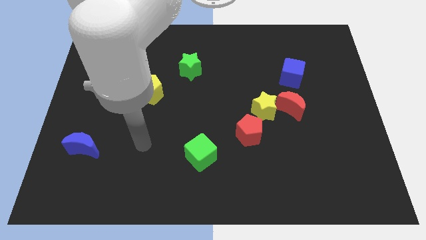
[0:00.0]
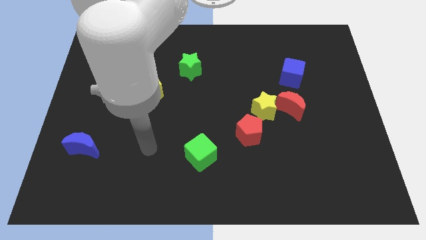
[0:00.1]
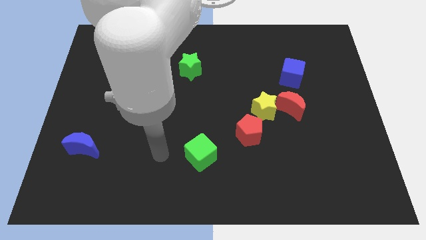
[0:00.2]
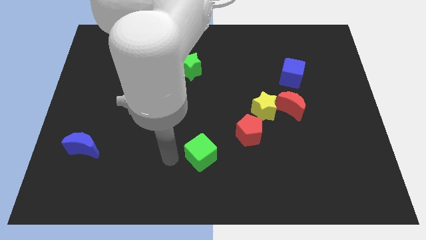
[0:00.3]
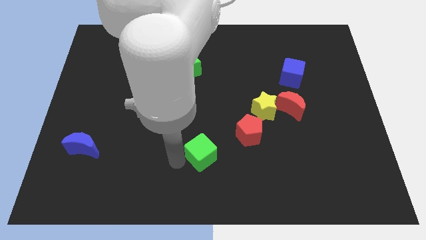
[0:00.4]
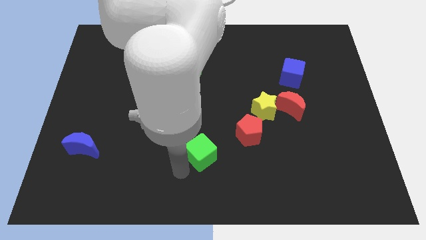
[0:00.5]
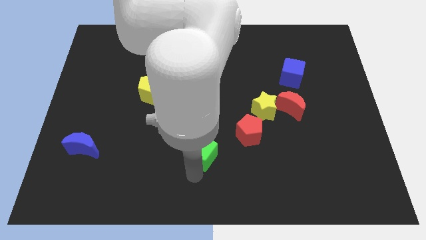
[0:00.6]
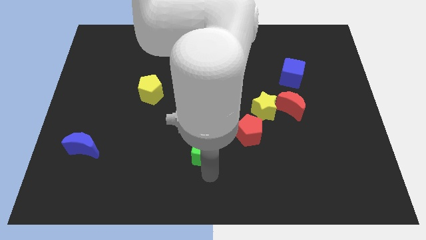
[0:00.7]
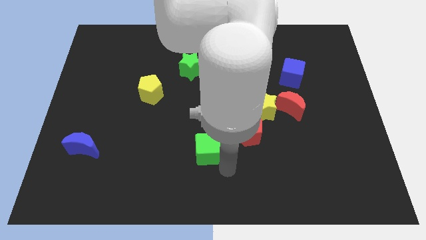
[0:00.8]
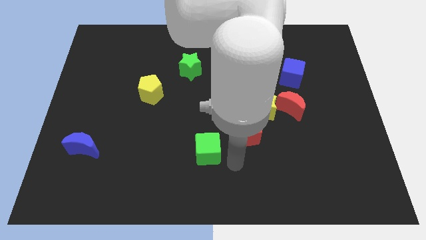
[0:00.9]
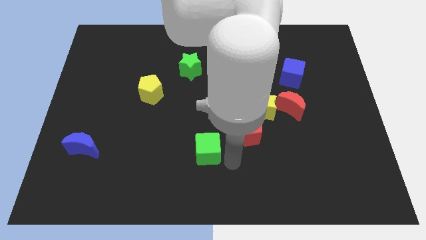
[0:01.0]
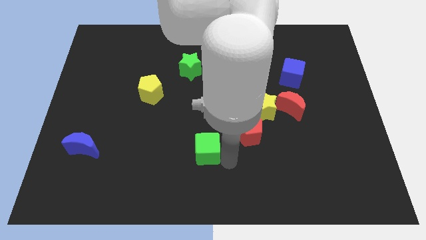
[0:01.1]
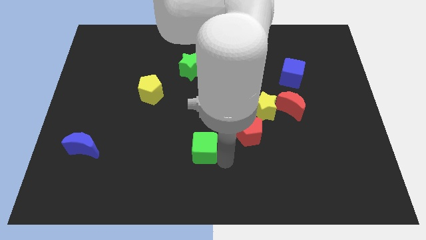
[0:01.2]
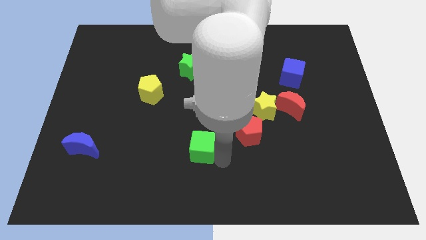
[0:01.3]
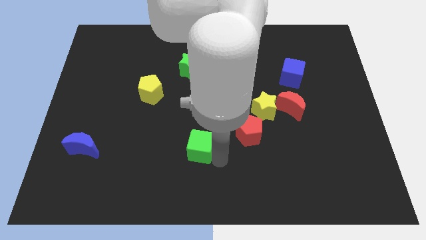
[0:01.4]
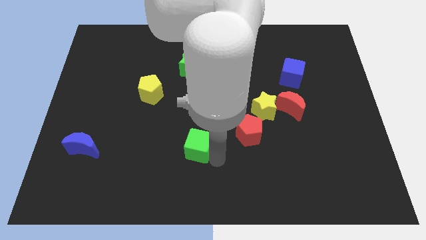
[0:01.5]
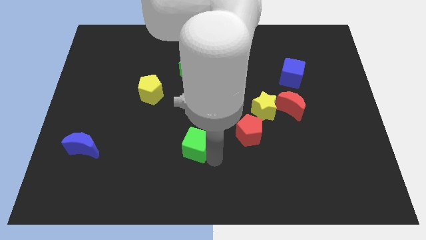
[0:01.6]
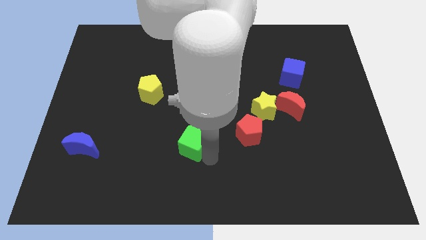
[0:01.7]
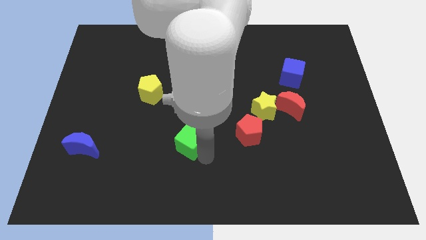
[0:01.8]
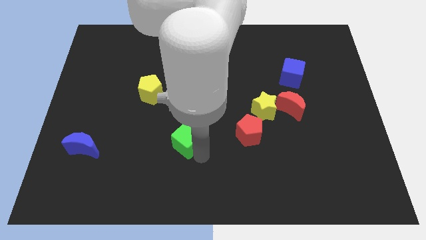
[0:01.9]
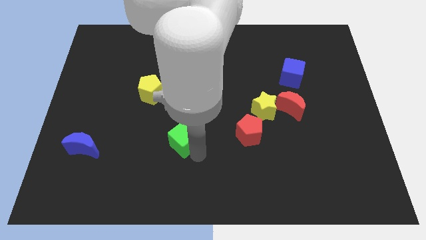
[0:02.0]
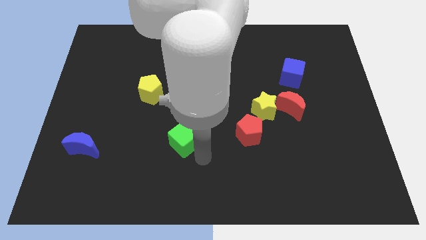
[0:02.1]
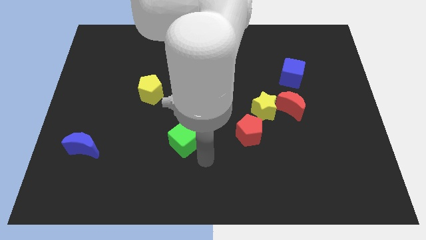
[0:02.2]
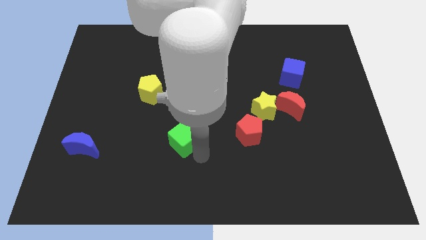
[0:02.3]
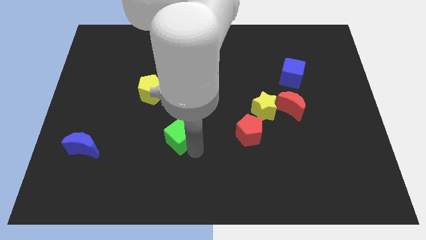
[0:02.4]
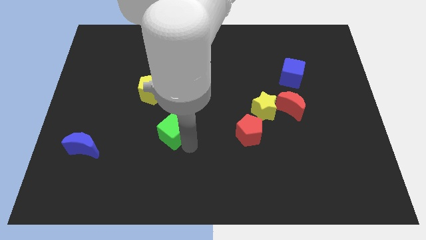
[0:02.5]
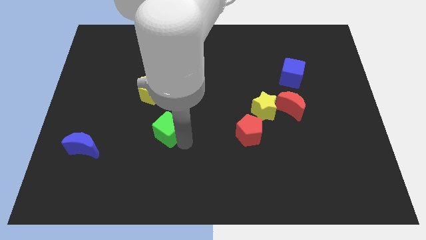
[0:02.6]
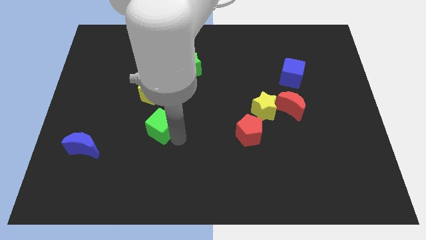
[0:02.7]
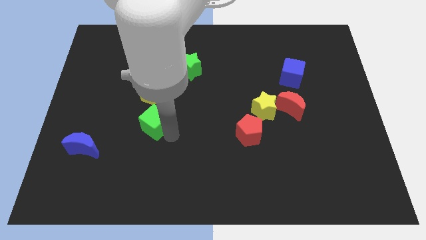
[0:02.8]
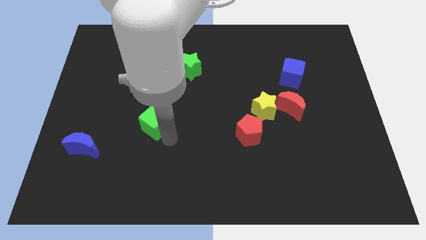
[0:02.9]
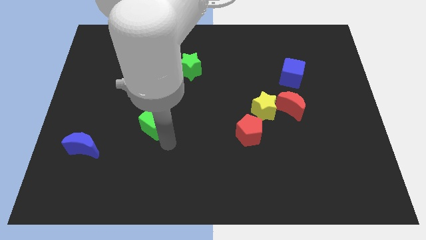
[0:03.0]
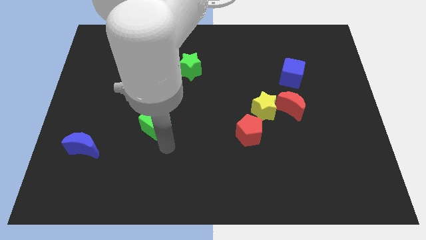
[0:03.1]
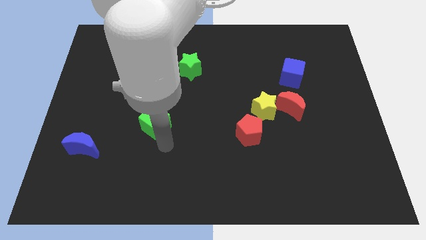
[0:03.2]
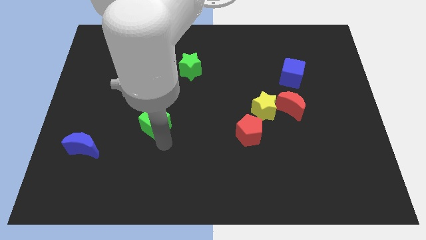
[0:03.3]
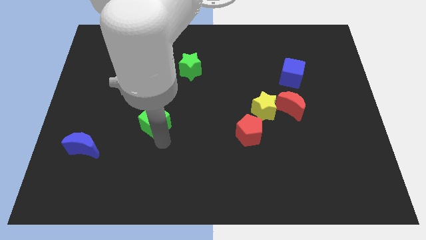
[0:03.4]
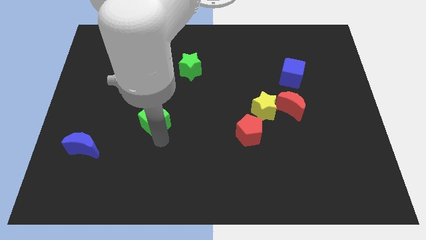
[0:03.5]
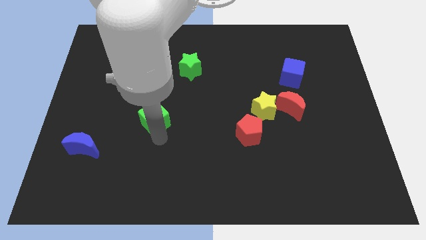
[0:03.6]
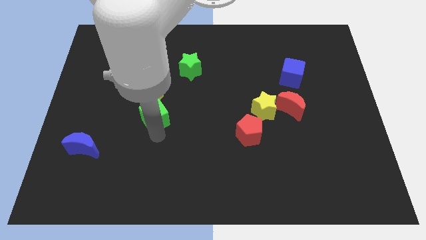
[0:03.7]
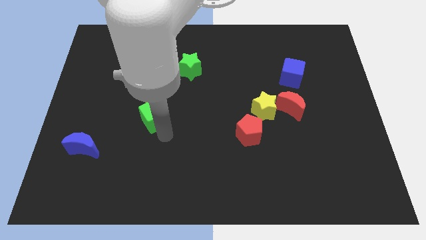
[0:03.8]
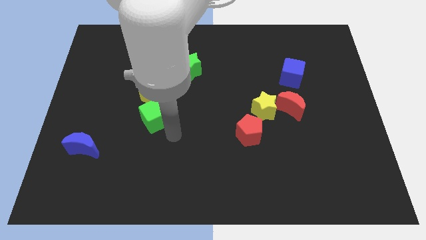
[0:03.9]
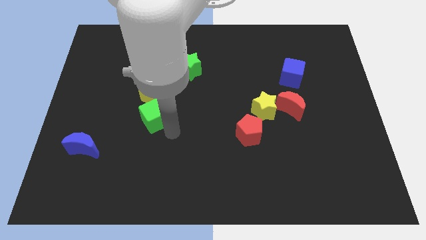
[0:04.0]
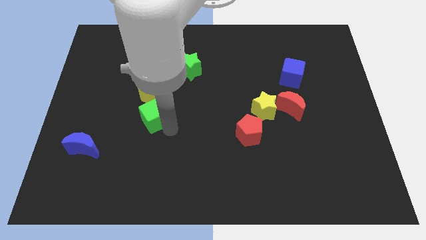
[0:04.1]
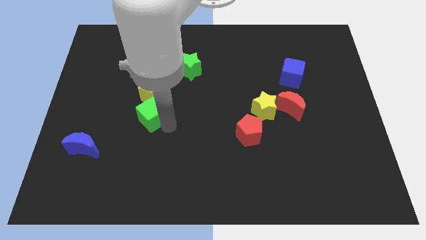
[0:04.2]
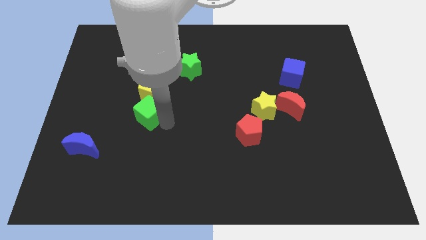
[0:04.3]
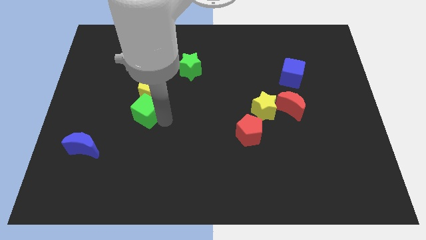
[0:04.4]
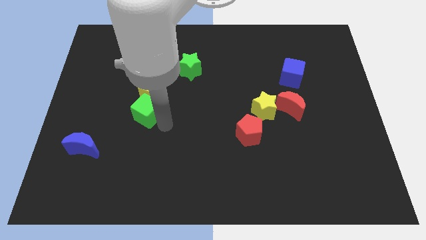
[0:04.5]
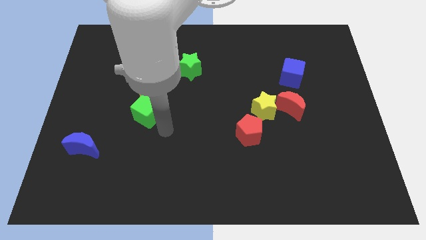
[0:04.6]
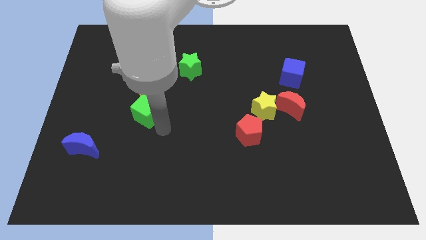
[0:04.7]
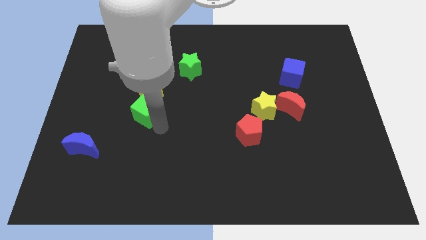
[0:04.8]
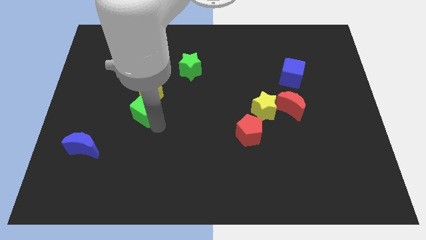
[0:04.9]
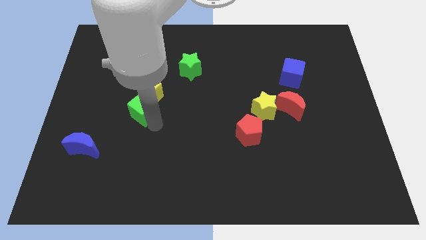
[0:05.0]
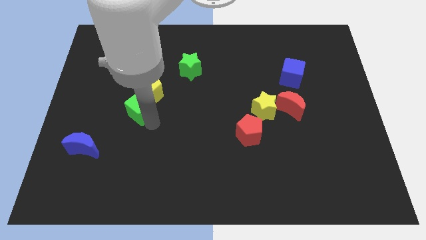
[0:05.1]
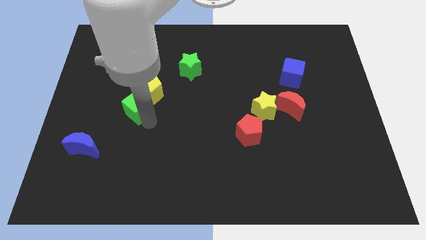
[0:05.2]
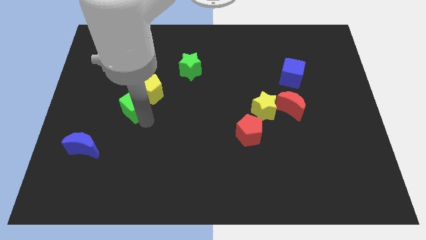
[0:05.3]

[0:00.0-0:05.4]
slide the green cube up and then left

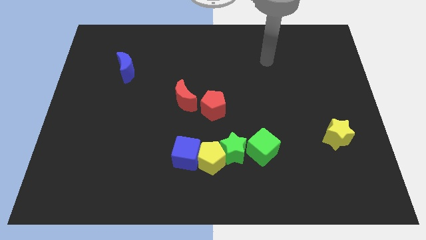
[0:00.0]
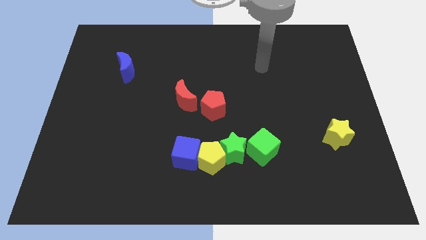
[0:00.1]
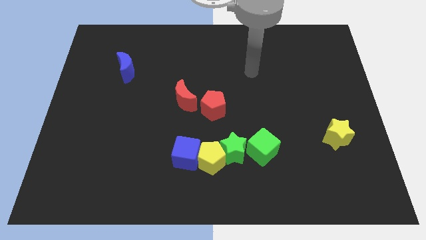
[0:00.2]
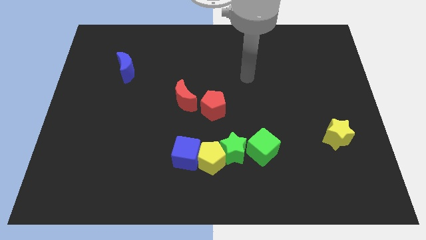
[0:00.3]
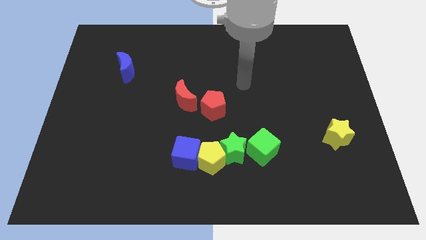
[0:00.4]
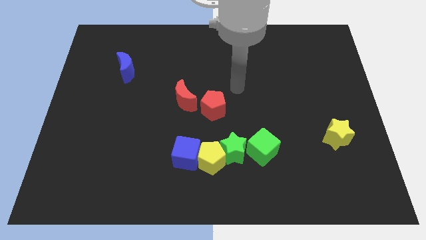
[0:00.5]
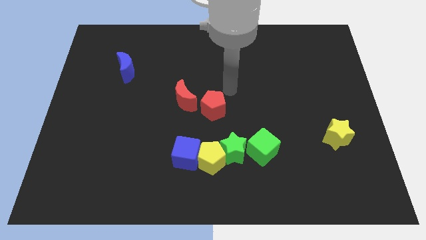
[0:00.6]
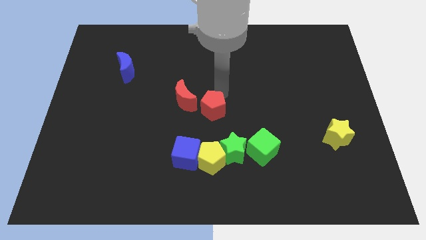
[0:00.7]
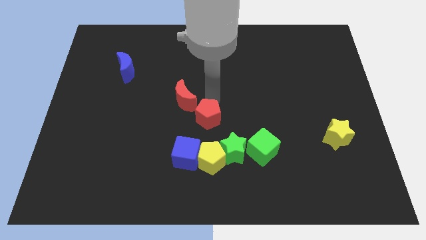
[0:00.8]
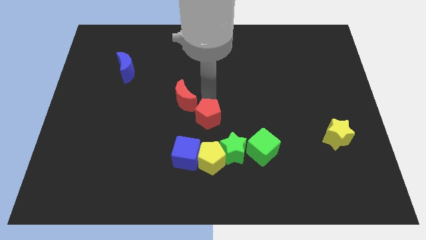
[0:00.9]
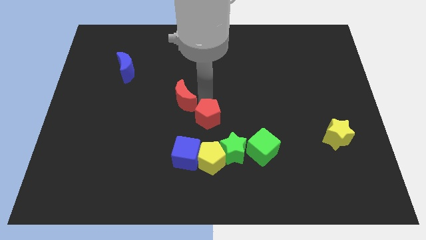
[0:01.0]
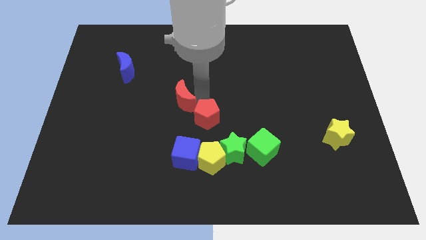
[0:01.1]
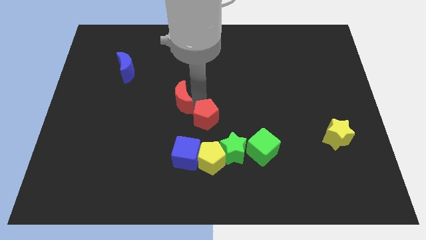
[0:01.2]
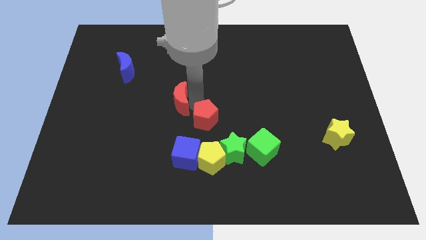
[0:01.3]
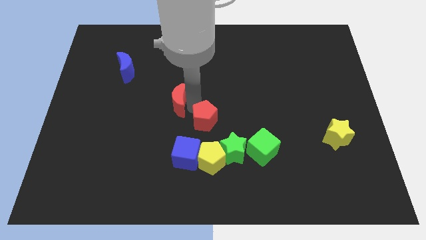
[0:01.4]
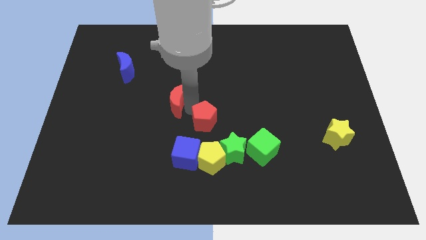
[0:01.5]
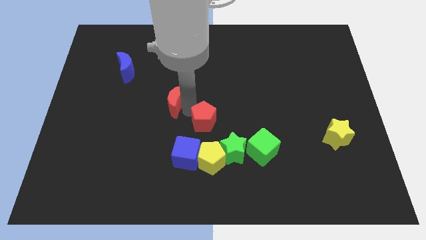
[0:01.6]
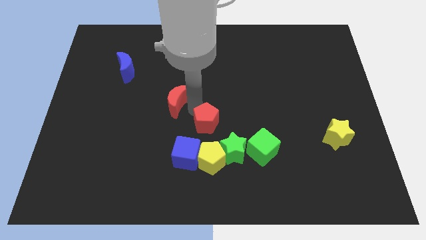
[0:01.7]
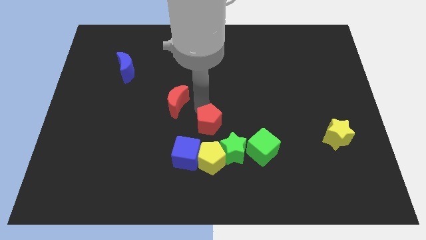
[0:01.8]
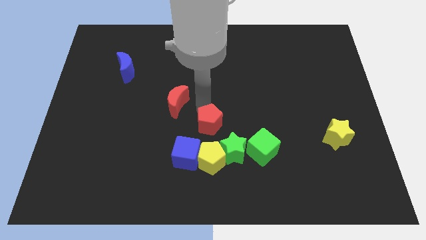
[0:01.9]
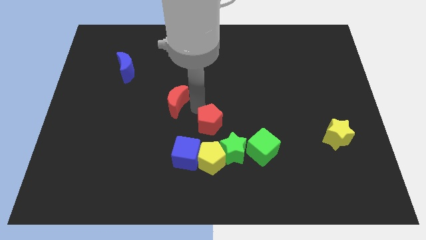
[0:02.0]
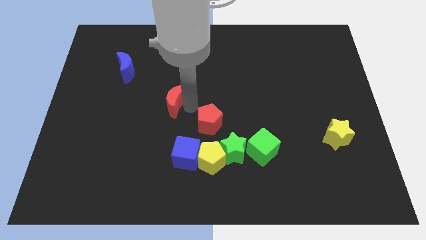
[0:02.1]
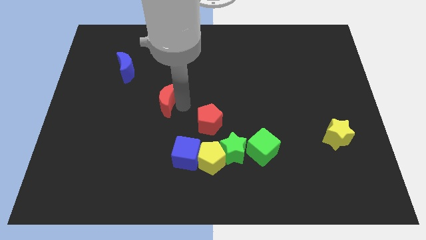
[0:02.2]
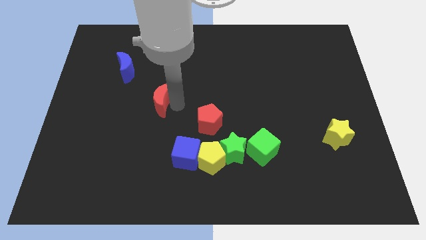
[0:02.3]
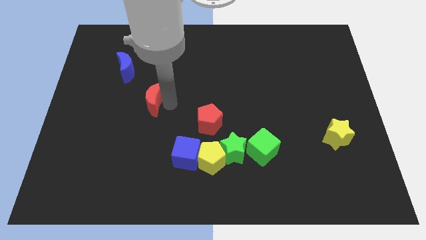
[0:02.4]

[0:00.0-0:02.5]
move the red moon a bit left
